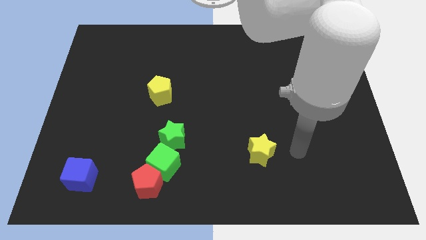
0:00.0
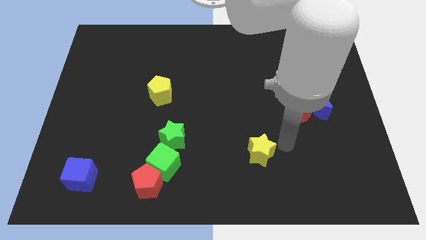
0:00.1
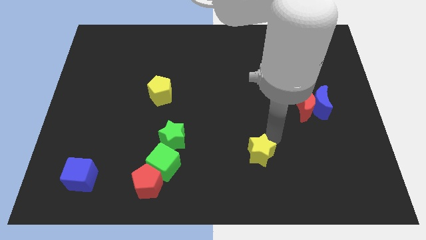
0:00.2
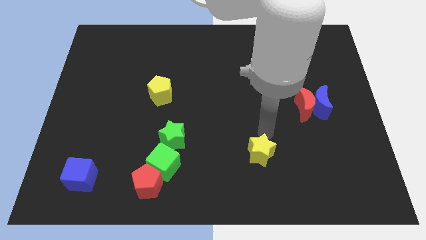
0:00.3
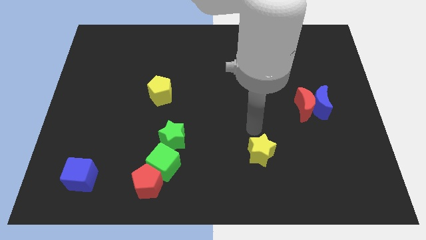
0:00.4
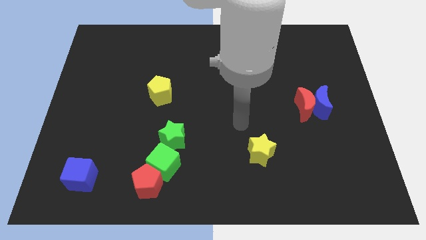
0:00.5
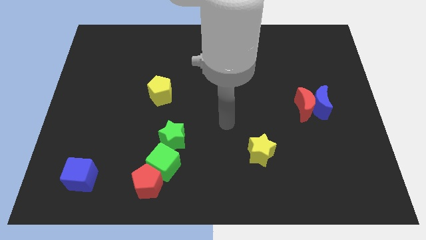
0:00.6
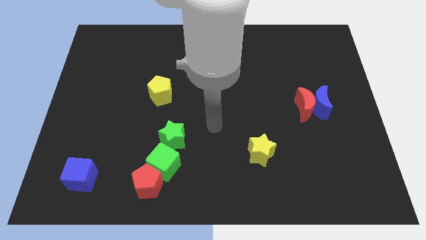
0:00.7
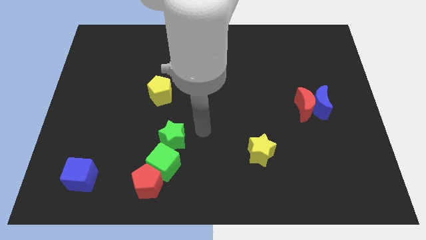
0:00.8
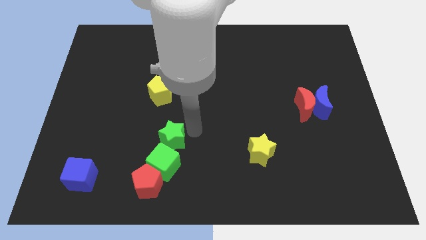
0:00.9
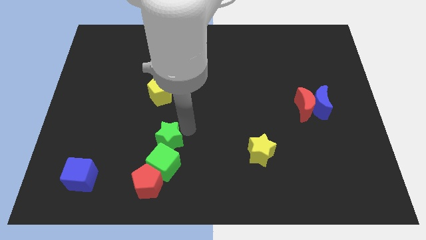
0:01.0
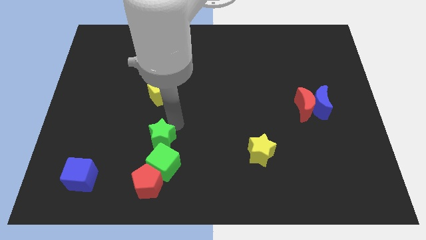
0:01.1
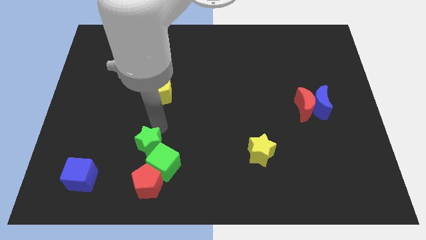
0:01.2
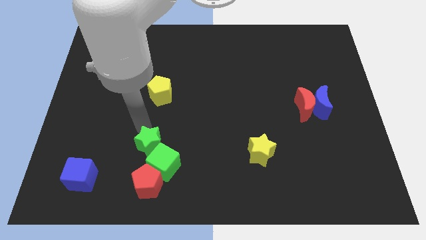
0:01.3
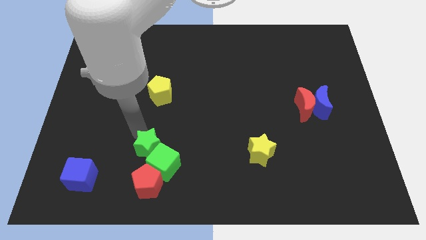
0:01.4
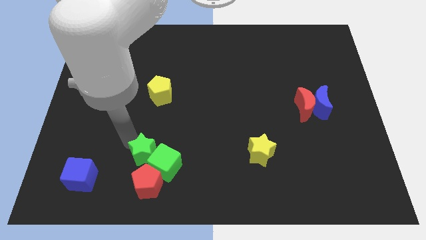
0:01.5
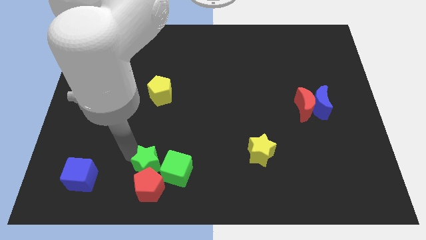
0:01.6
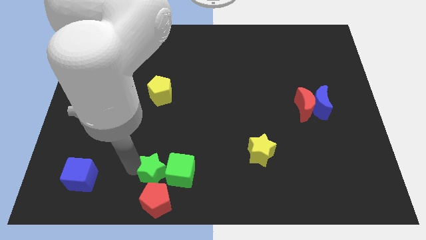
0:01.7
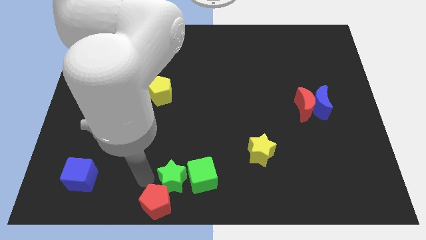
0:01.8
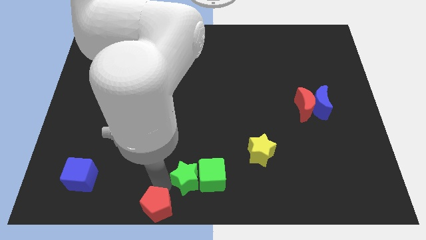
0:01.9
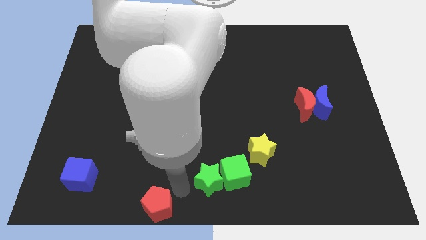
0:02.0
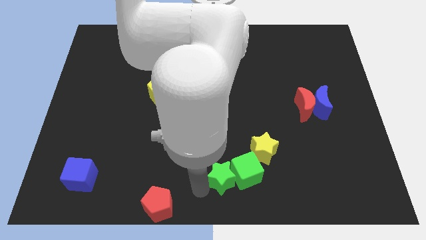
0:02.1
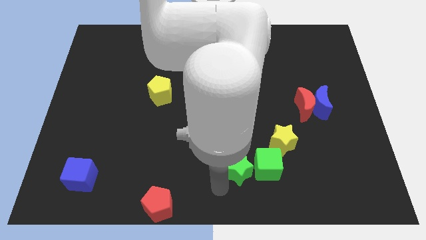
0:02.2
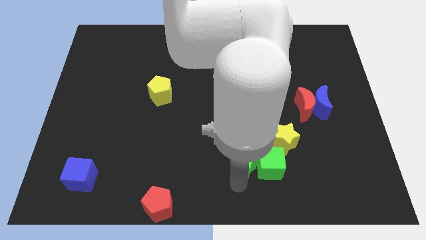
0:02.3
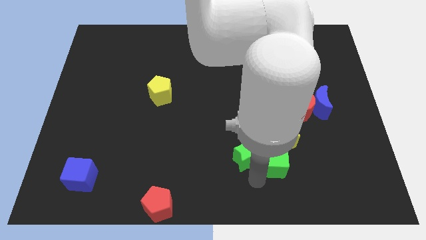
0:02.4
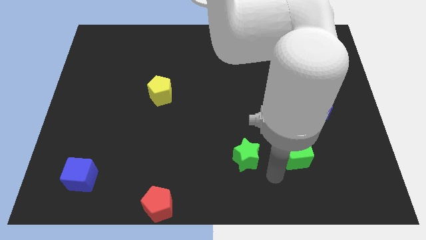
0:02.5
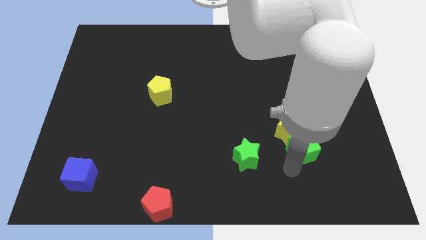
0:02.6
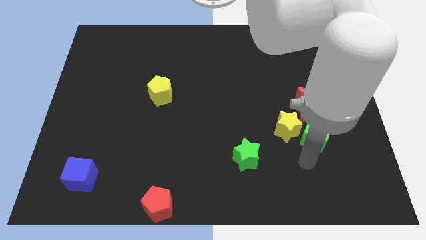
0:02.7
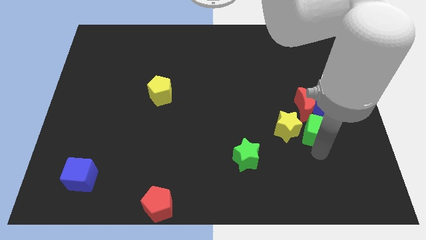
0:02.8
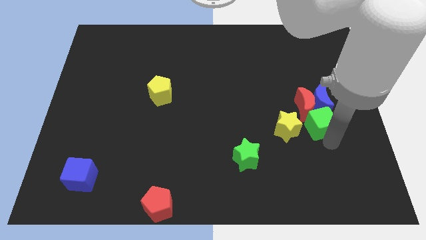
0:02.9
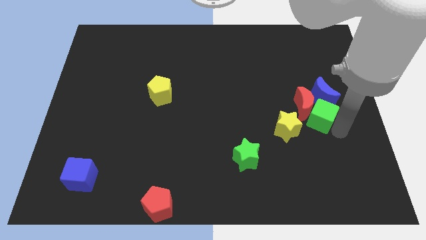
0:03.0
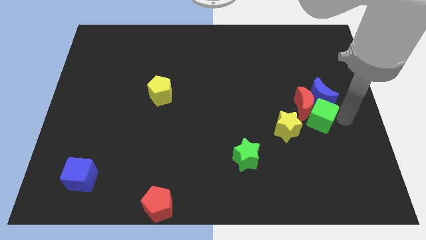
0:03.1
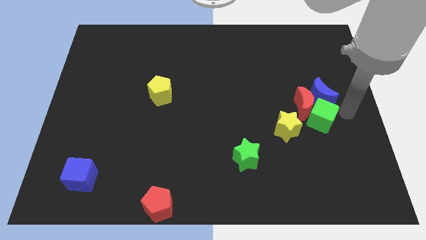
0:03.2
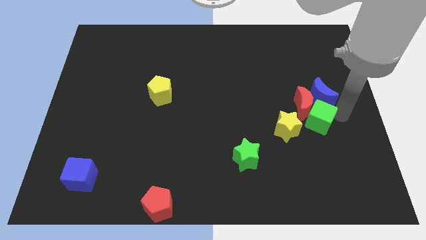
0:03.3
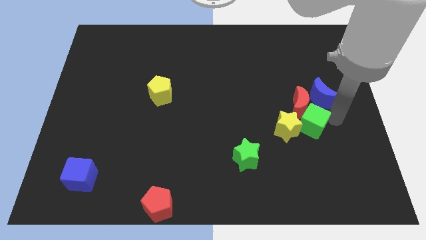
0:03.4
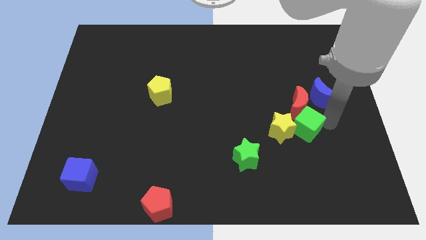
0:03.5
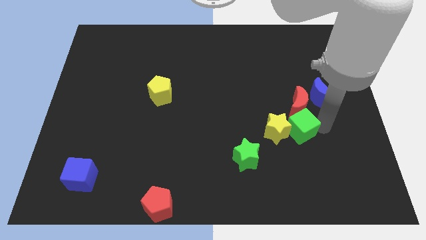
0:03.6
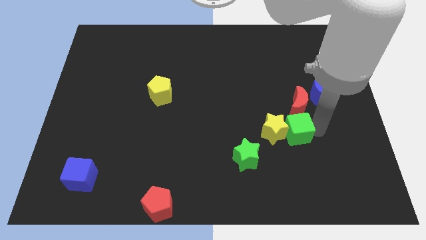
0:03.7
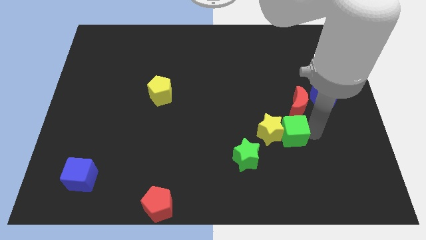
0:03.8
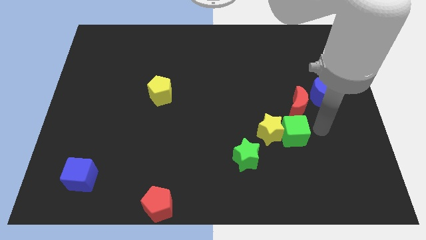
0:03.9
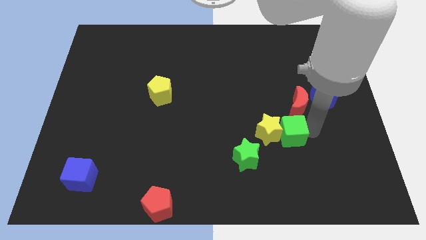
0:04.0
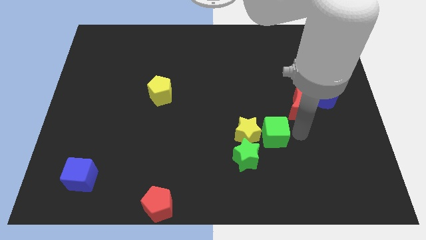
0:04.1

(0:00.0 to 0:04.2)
slide the green cube slightly upwards and right diagonally

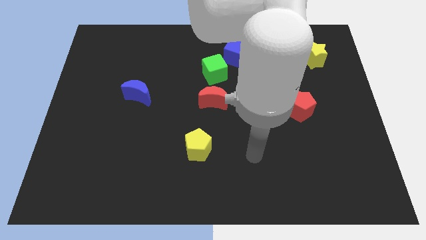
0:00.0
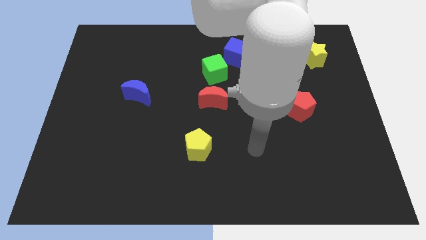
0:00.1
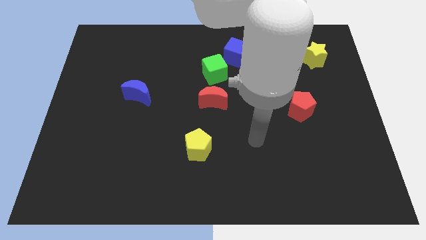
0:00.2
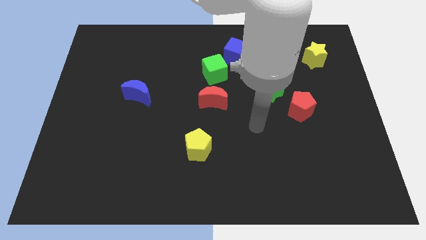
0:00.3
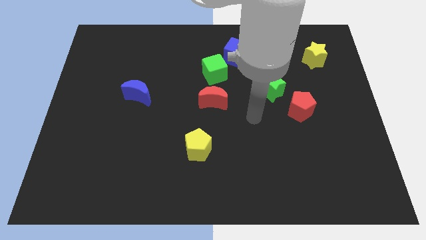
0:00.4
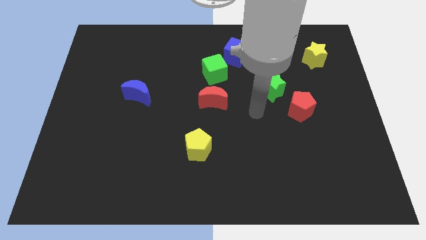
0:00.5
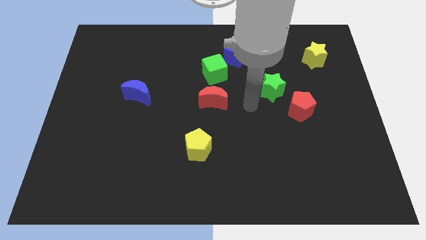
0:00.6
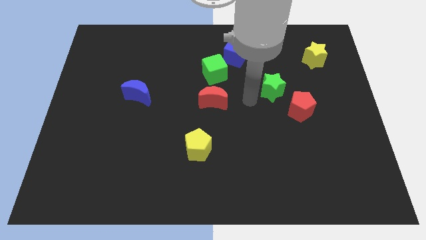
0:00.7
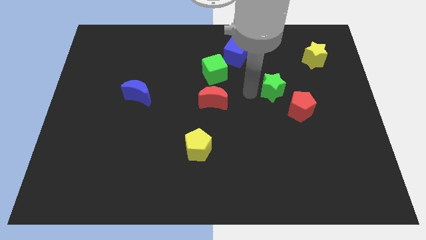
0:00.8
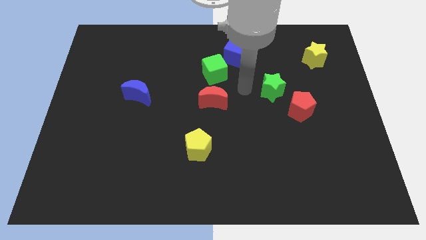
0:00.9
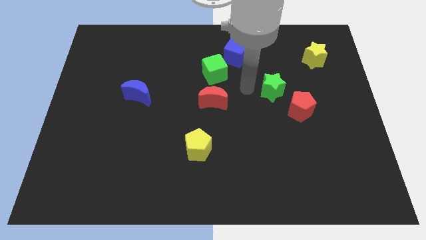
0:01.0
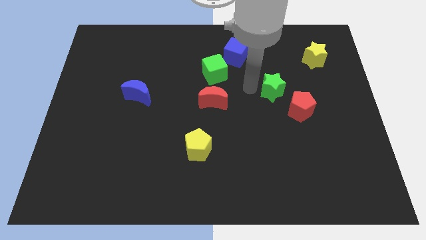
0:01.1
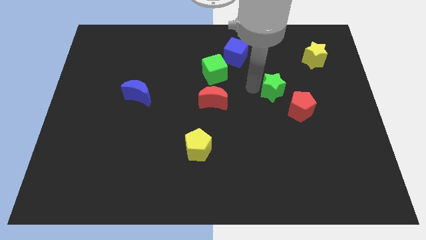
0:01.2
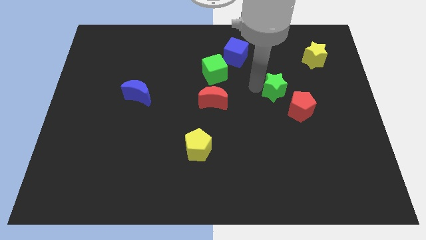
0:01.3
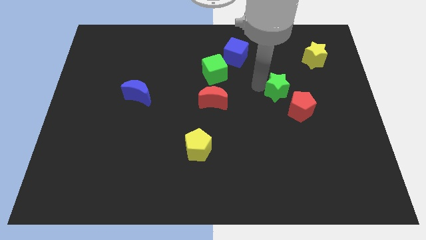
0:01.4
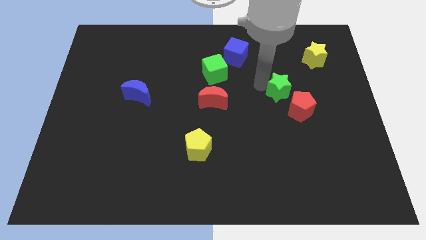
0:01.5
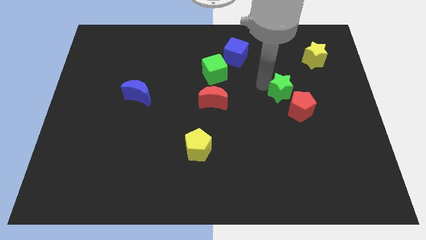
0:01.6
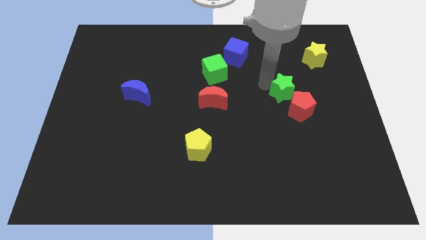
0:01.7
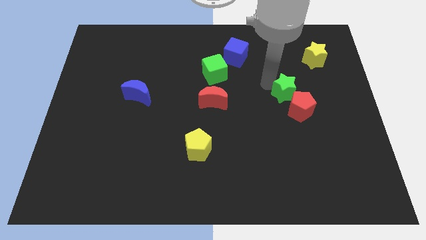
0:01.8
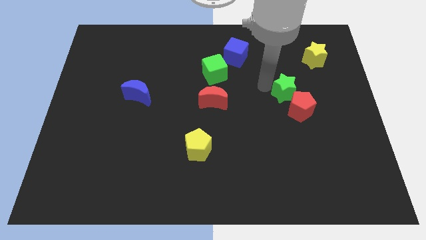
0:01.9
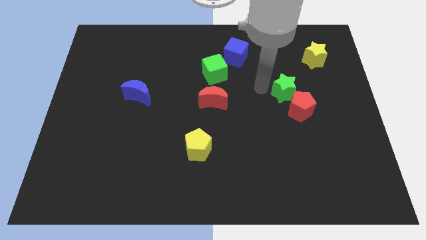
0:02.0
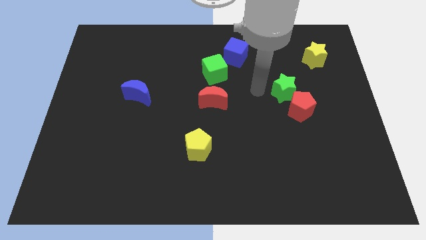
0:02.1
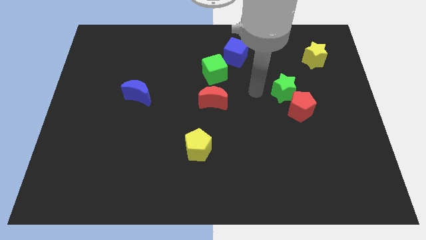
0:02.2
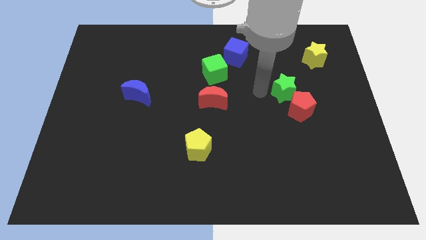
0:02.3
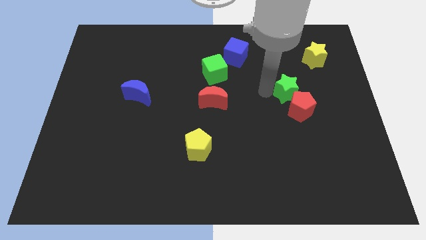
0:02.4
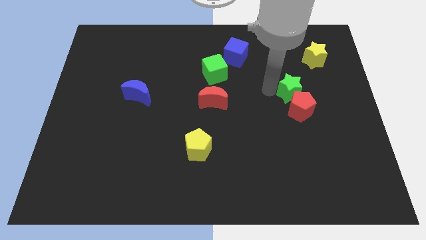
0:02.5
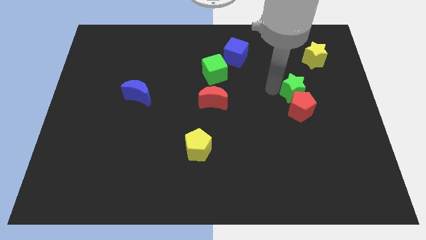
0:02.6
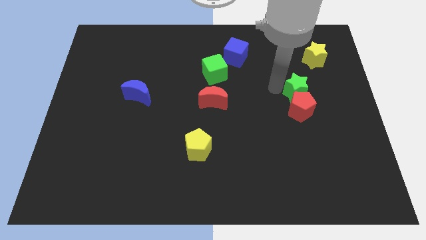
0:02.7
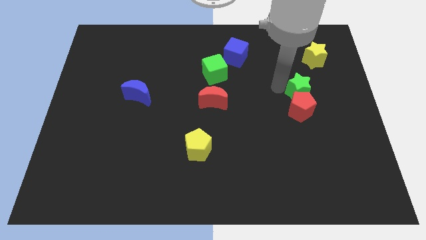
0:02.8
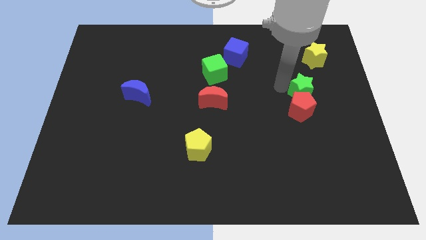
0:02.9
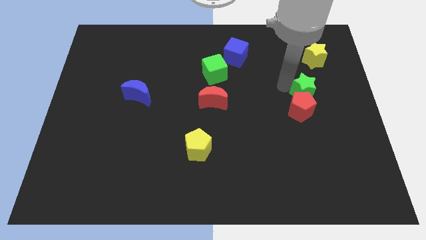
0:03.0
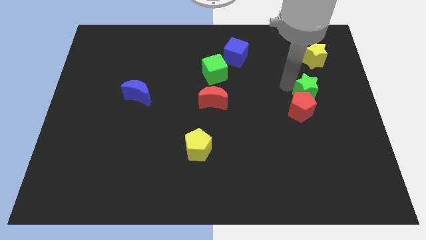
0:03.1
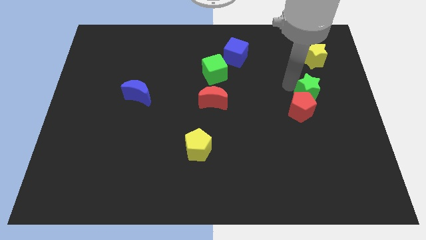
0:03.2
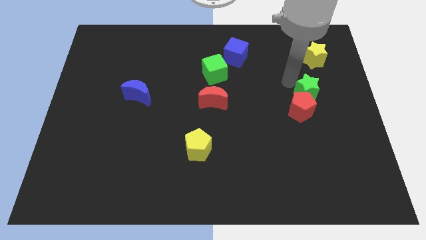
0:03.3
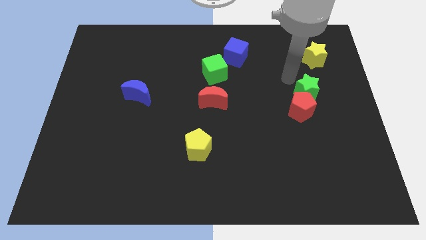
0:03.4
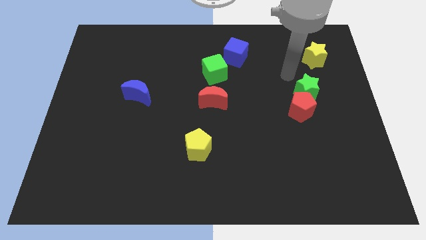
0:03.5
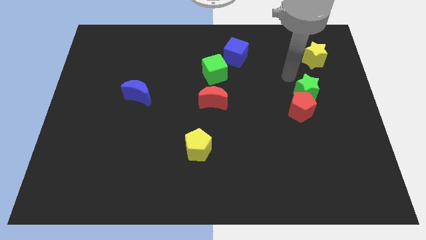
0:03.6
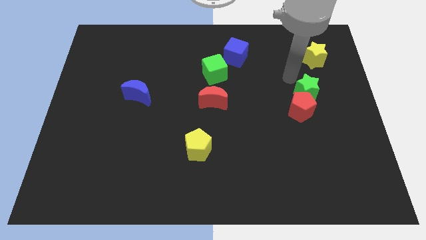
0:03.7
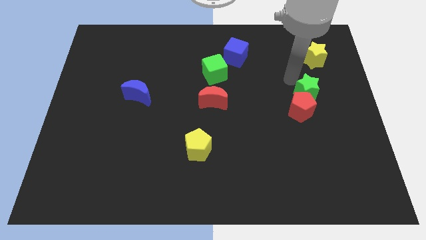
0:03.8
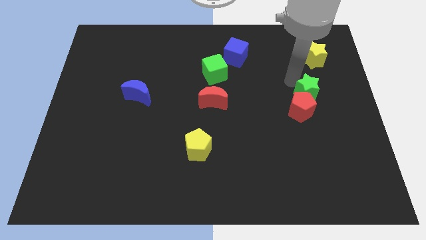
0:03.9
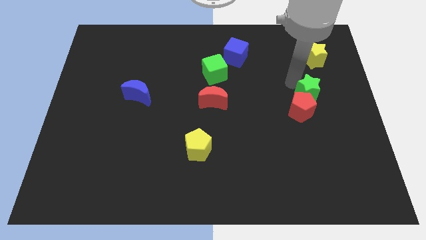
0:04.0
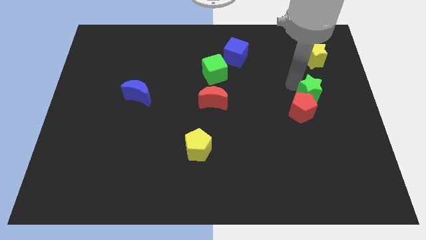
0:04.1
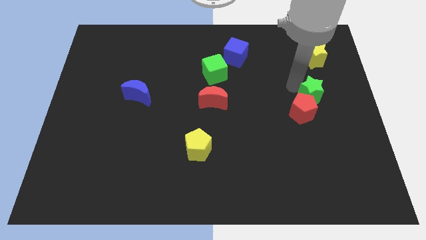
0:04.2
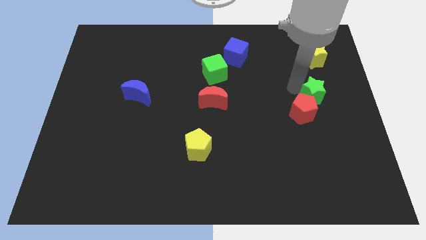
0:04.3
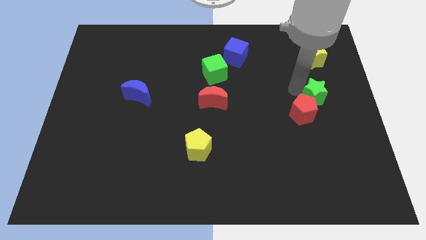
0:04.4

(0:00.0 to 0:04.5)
slightly push the green star downwards and then right
